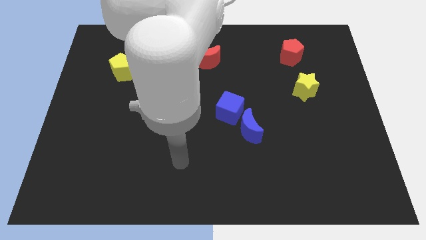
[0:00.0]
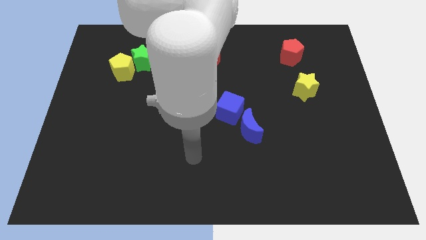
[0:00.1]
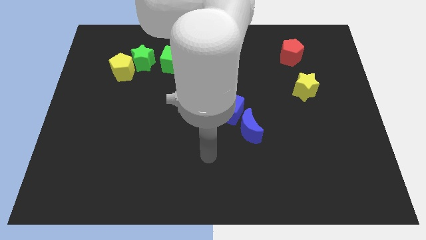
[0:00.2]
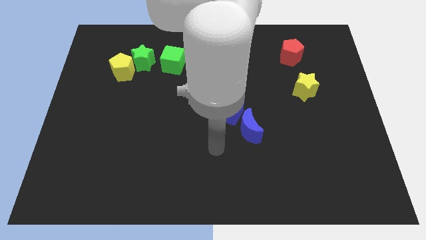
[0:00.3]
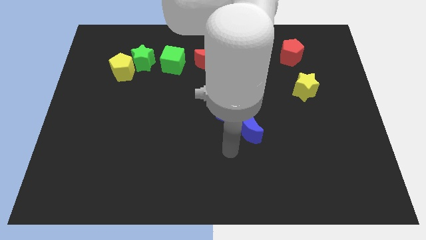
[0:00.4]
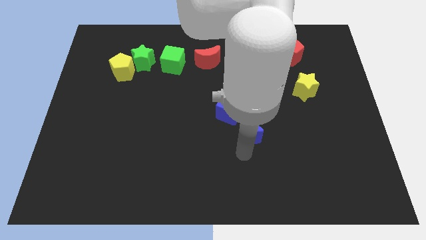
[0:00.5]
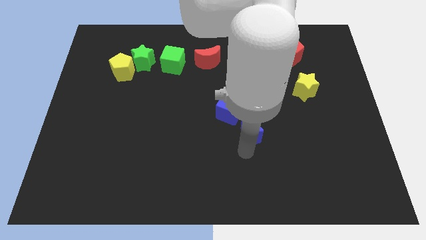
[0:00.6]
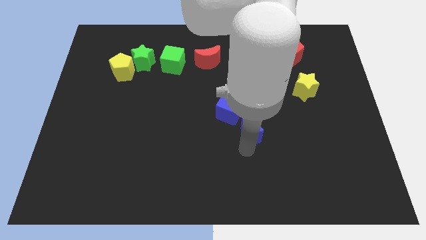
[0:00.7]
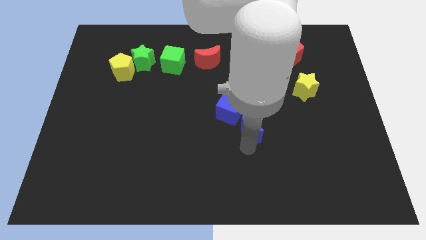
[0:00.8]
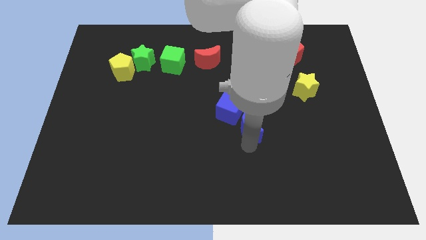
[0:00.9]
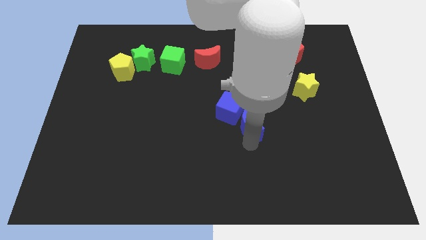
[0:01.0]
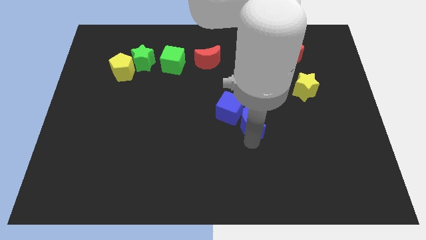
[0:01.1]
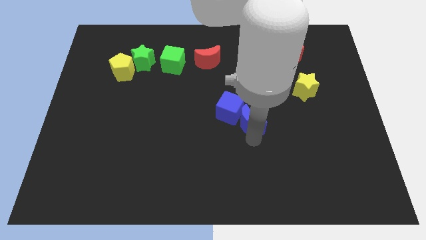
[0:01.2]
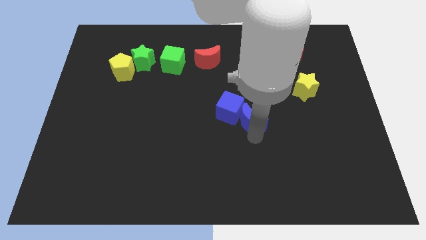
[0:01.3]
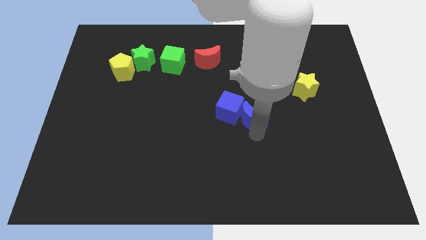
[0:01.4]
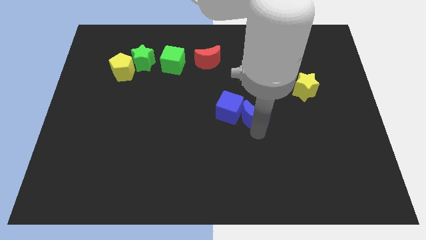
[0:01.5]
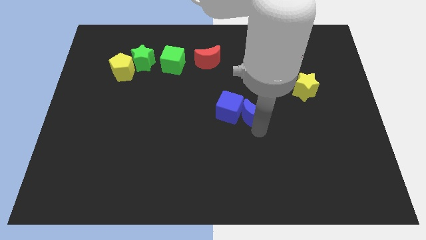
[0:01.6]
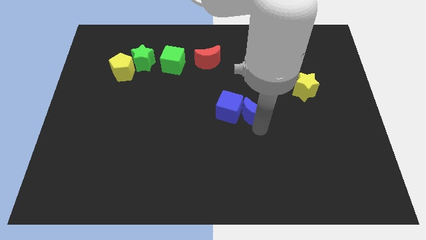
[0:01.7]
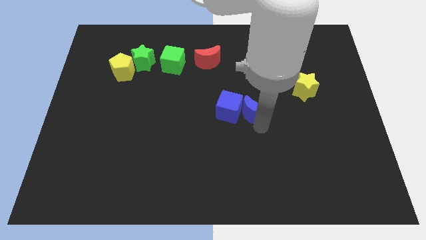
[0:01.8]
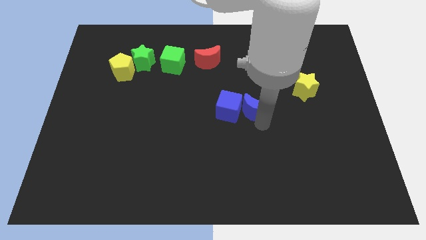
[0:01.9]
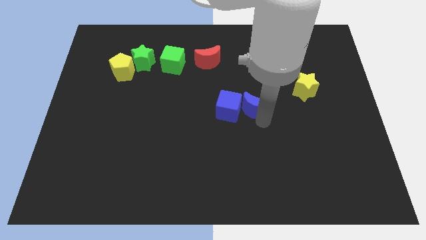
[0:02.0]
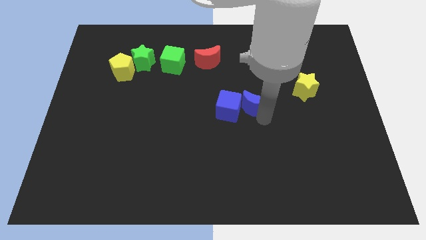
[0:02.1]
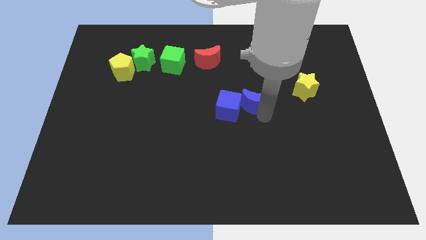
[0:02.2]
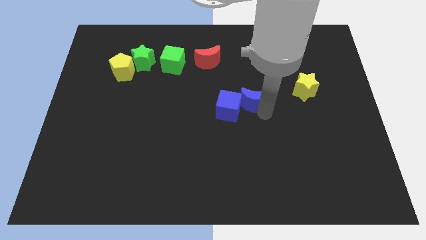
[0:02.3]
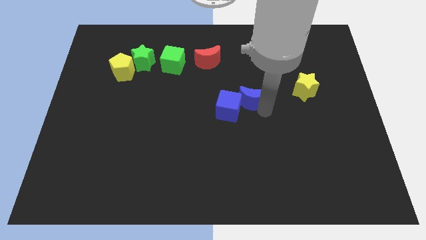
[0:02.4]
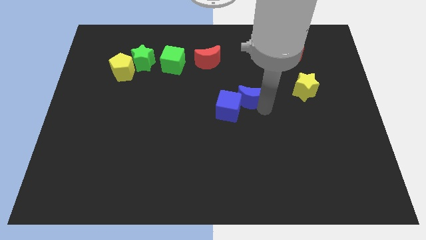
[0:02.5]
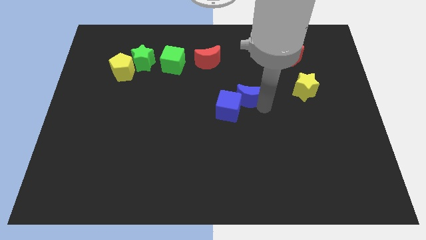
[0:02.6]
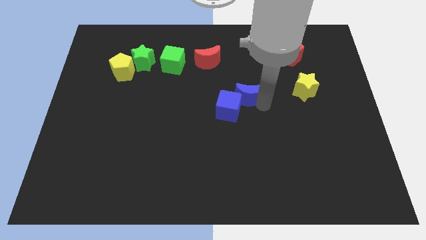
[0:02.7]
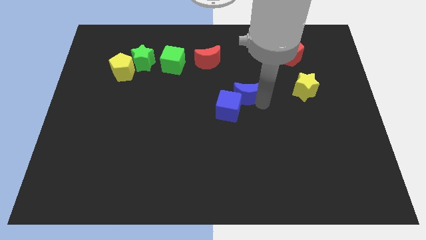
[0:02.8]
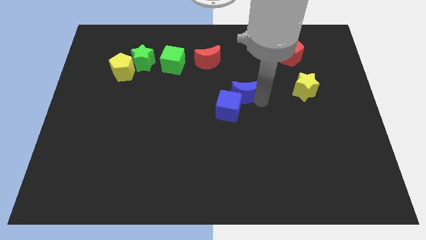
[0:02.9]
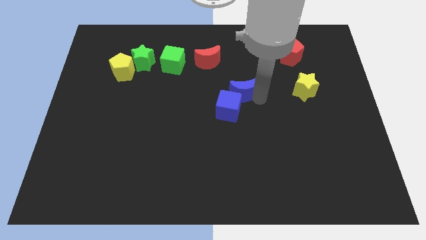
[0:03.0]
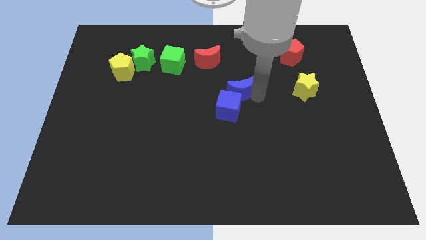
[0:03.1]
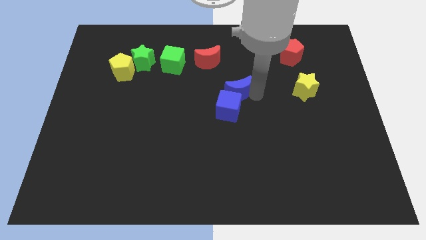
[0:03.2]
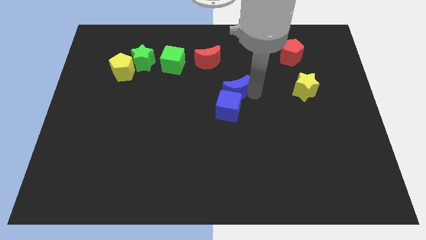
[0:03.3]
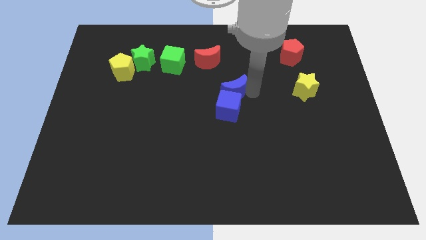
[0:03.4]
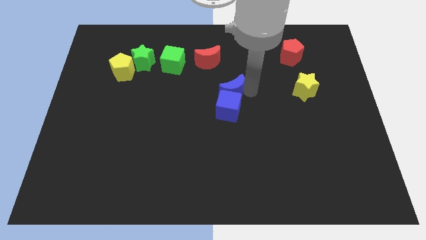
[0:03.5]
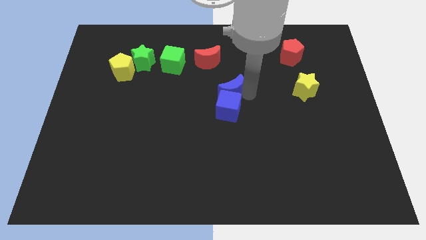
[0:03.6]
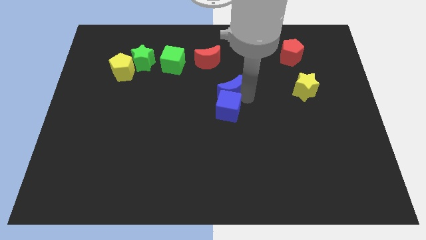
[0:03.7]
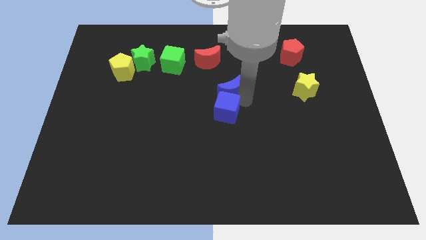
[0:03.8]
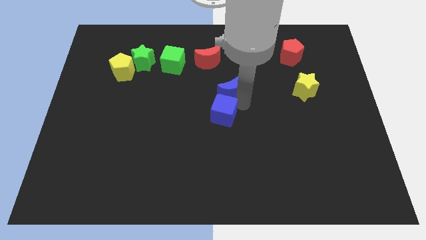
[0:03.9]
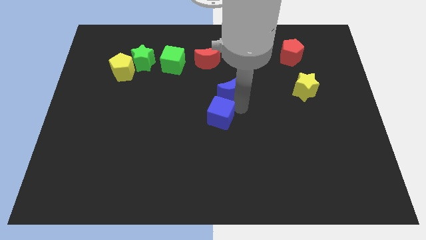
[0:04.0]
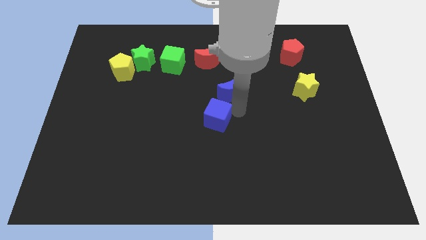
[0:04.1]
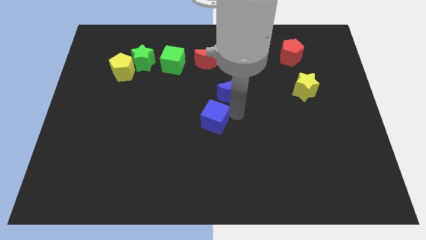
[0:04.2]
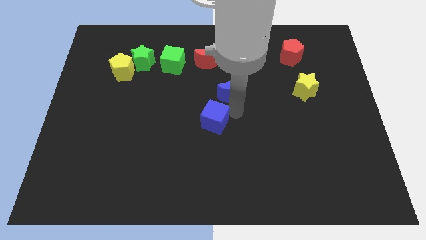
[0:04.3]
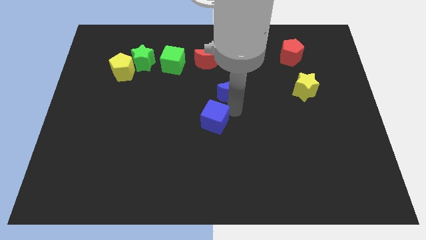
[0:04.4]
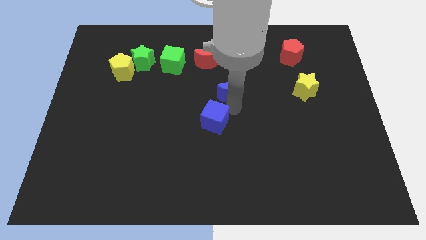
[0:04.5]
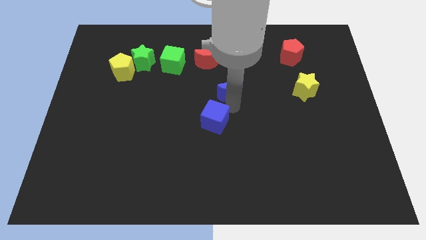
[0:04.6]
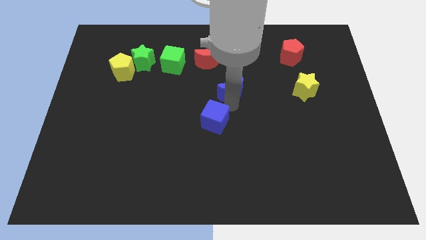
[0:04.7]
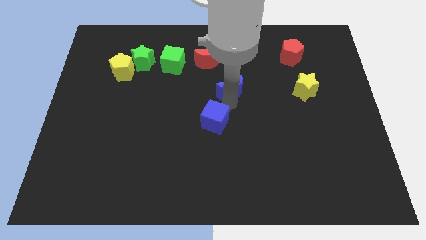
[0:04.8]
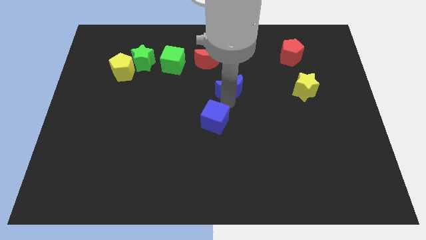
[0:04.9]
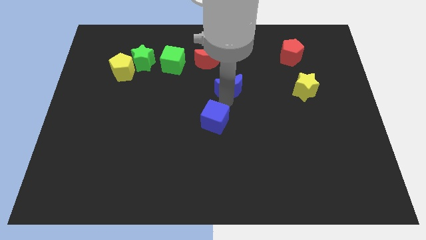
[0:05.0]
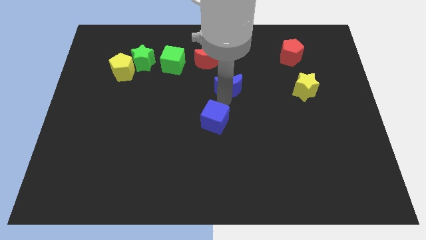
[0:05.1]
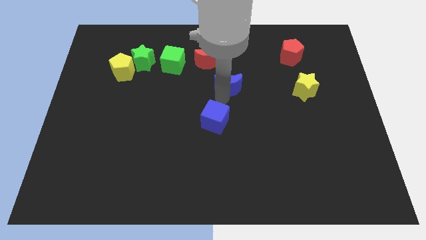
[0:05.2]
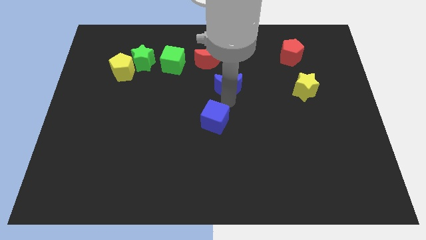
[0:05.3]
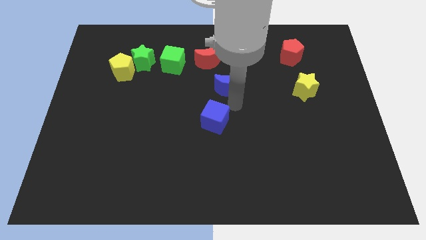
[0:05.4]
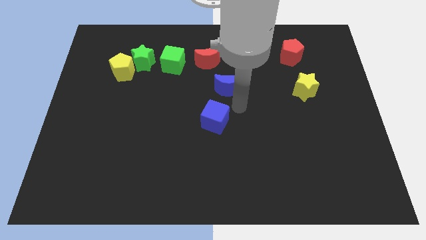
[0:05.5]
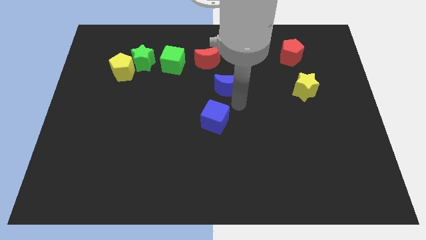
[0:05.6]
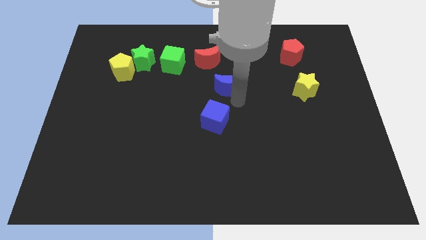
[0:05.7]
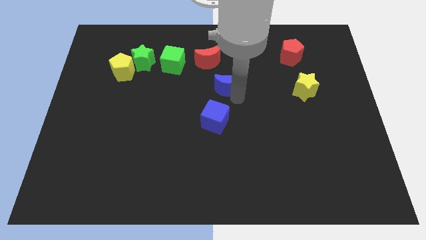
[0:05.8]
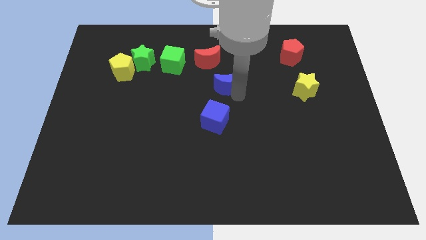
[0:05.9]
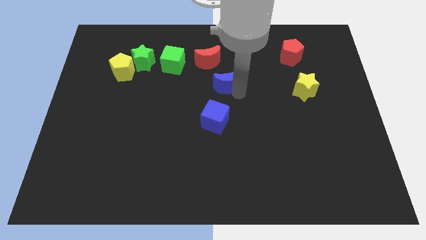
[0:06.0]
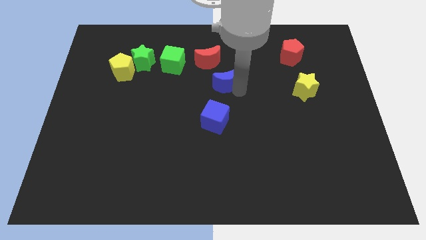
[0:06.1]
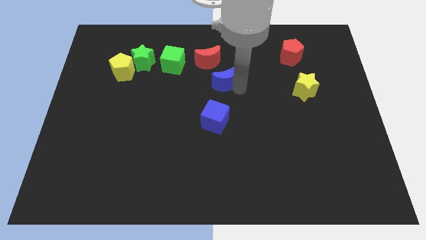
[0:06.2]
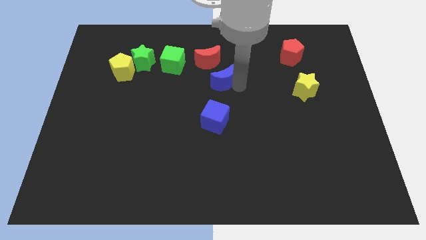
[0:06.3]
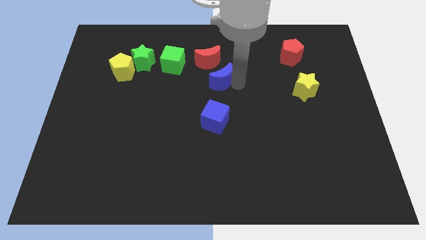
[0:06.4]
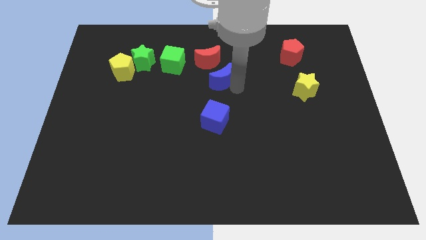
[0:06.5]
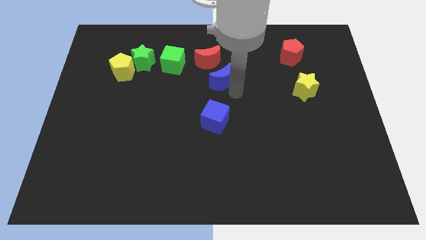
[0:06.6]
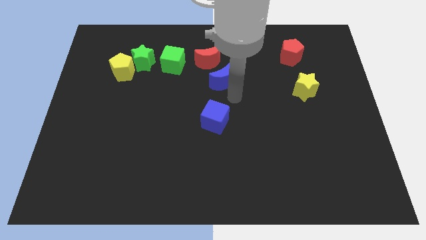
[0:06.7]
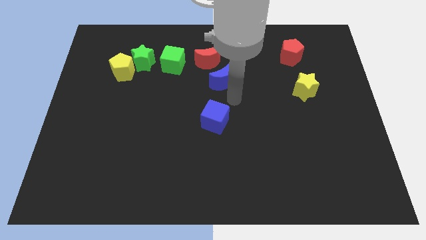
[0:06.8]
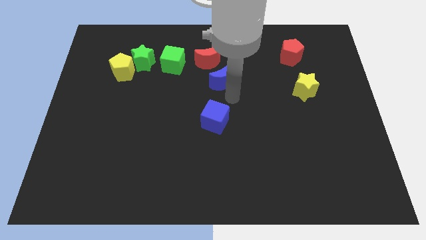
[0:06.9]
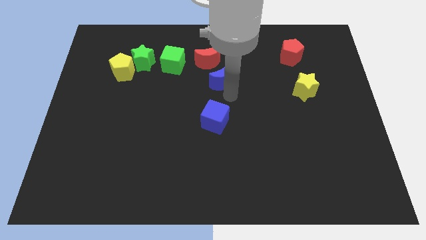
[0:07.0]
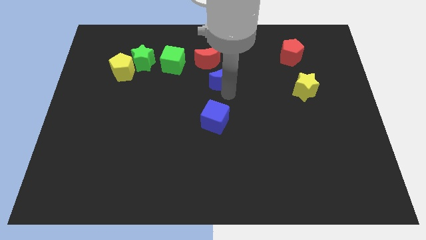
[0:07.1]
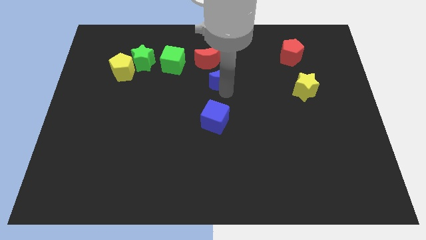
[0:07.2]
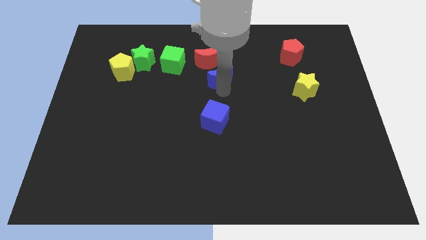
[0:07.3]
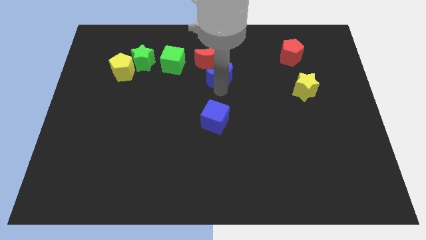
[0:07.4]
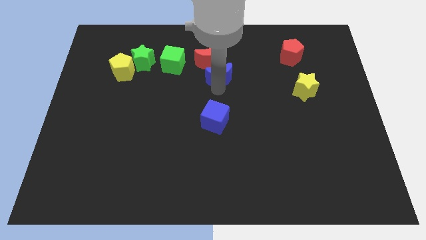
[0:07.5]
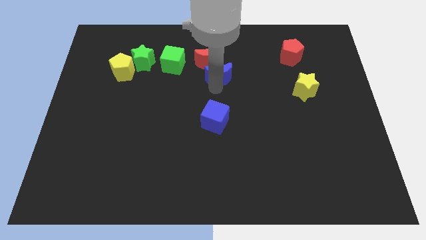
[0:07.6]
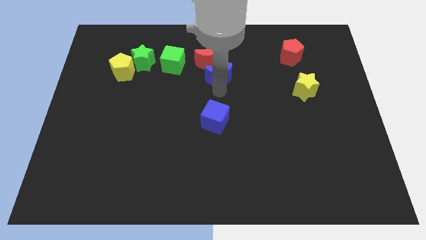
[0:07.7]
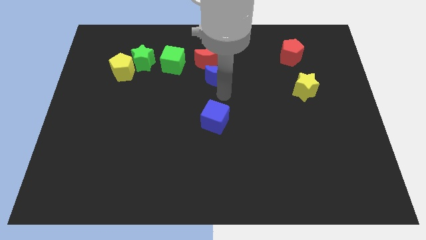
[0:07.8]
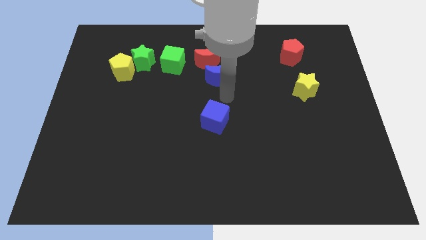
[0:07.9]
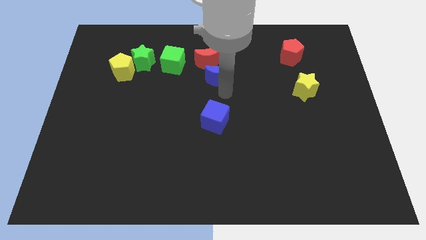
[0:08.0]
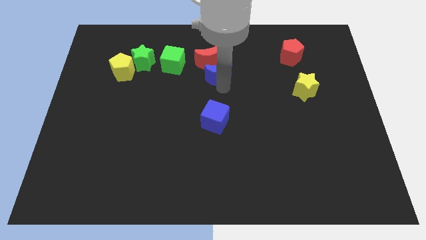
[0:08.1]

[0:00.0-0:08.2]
slide the blue moon to the right side of the green cube
